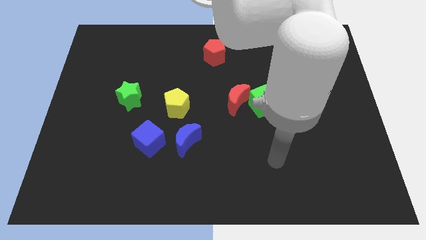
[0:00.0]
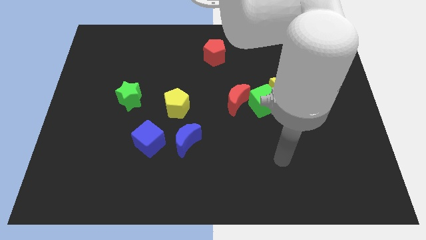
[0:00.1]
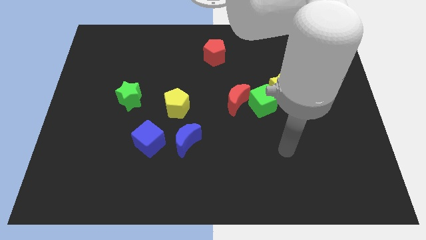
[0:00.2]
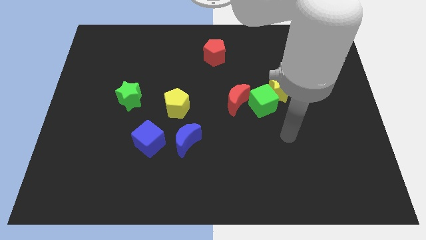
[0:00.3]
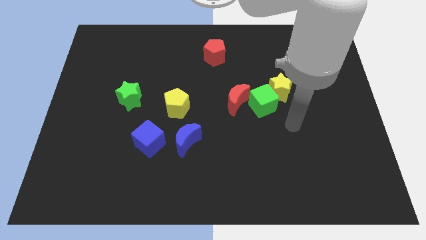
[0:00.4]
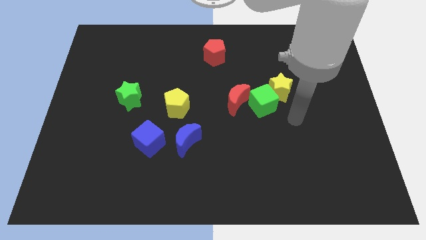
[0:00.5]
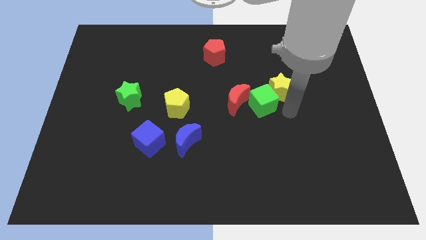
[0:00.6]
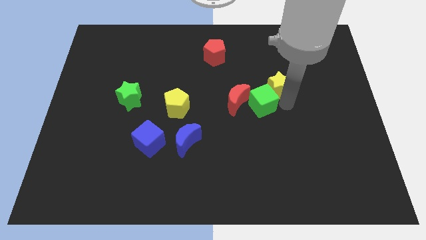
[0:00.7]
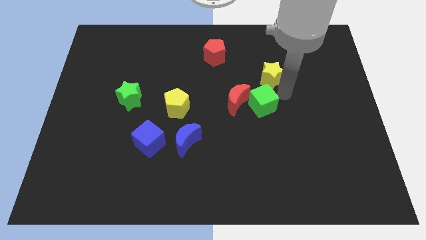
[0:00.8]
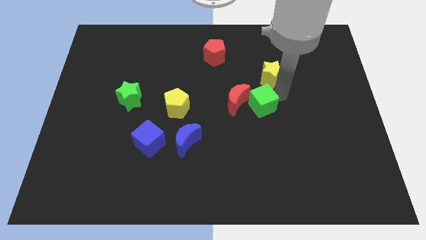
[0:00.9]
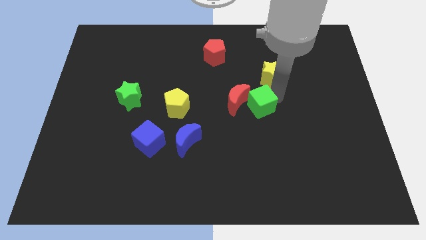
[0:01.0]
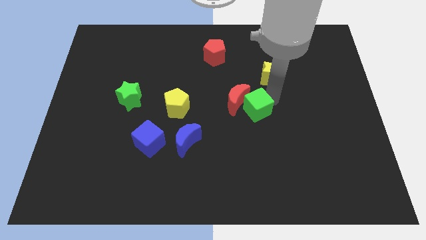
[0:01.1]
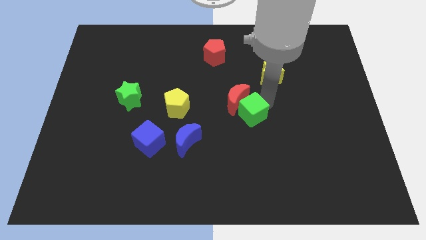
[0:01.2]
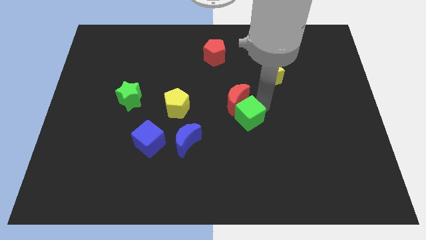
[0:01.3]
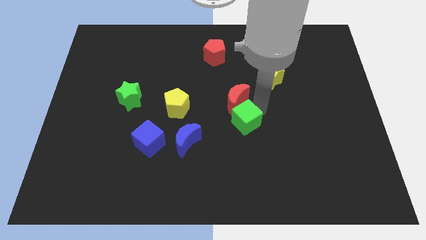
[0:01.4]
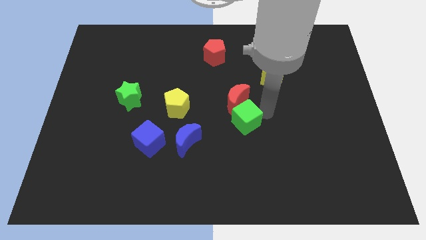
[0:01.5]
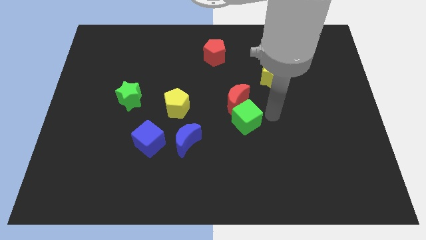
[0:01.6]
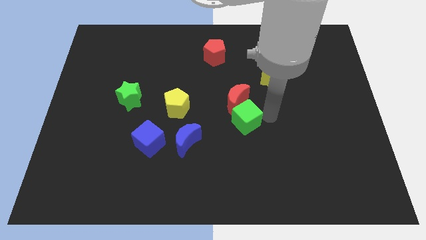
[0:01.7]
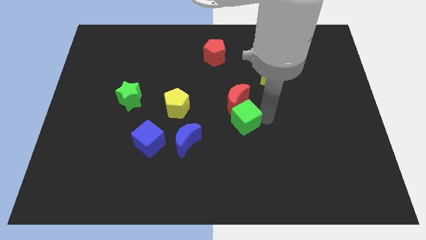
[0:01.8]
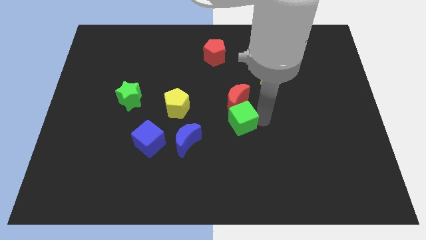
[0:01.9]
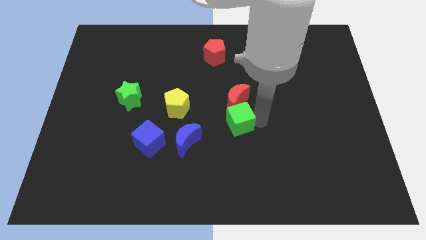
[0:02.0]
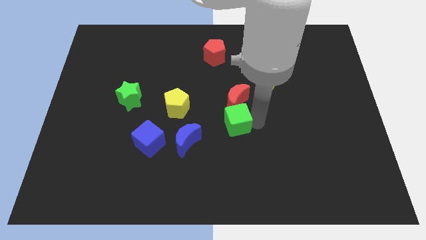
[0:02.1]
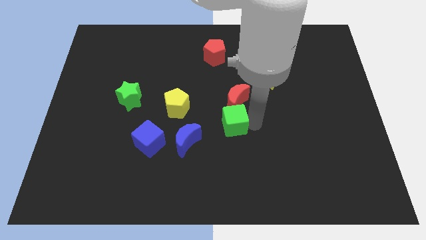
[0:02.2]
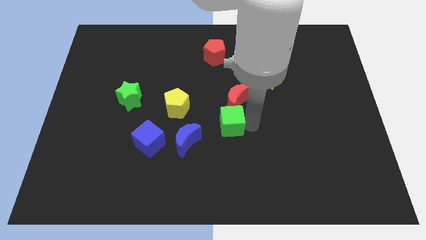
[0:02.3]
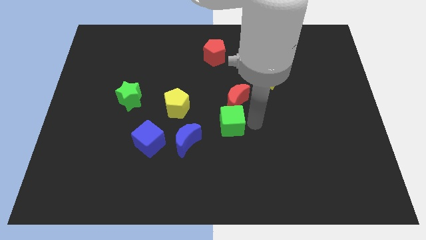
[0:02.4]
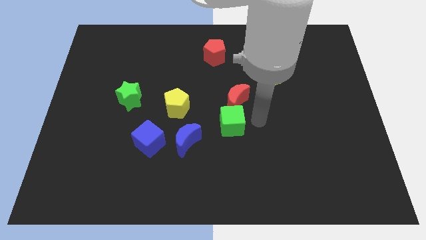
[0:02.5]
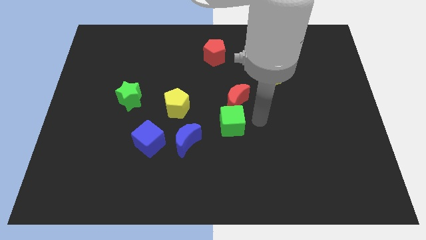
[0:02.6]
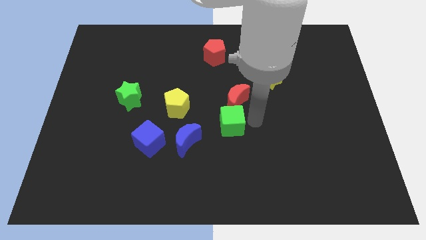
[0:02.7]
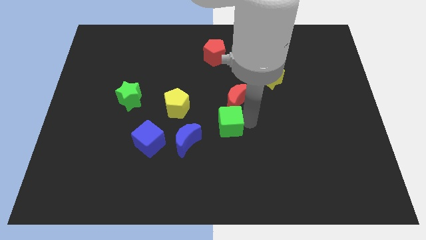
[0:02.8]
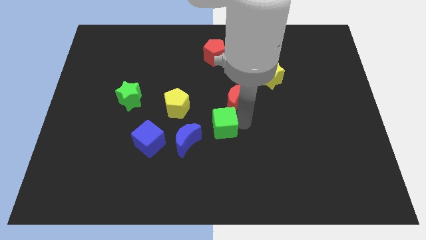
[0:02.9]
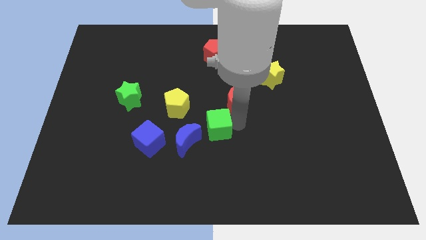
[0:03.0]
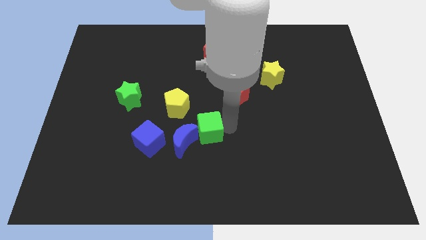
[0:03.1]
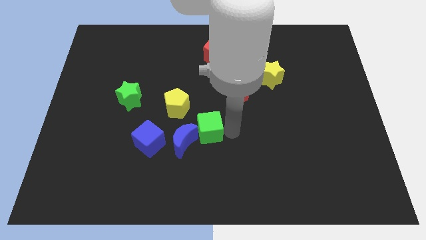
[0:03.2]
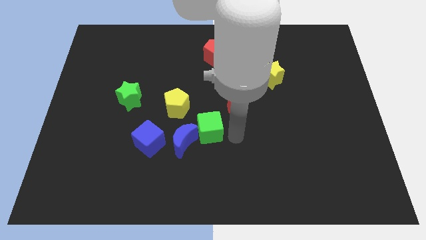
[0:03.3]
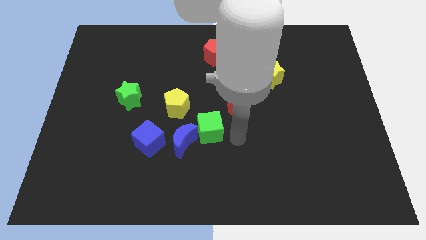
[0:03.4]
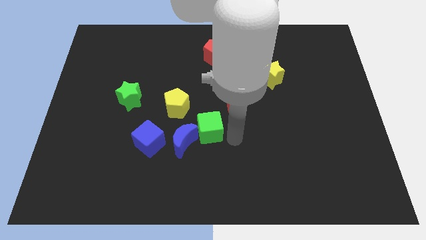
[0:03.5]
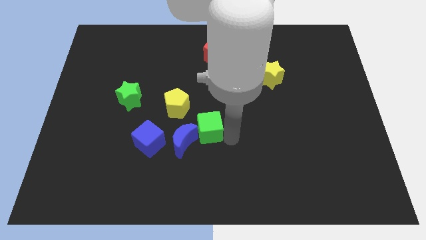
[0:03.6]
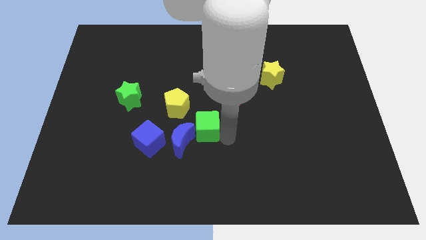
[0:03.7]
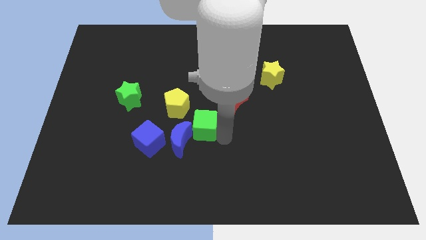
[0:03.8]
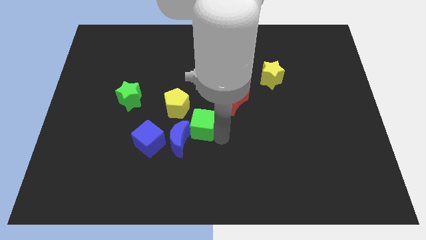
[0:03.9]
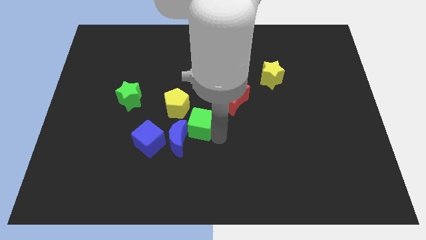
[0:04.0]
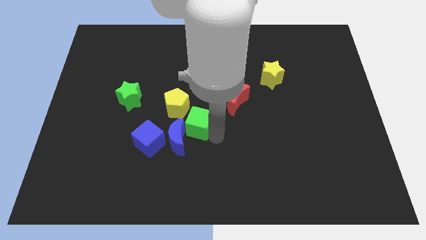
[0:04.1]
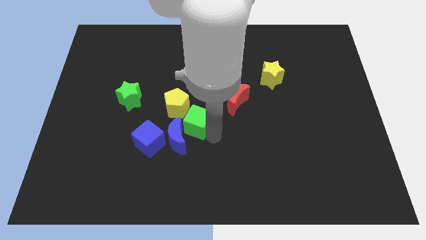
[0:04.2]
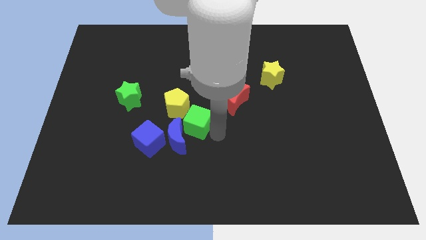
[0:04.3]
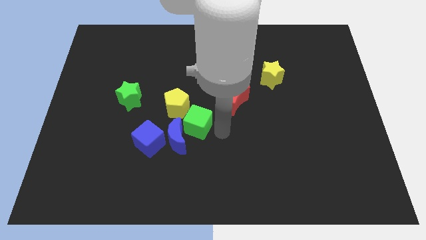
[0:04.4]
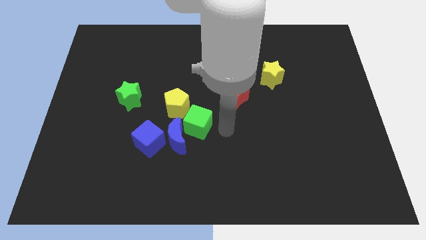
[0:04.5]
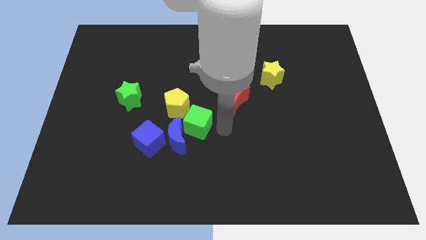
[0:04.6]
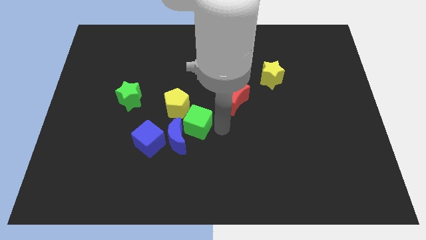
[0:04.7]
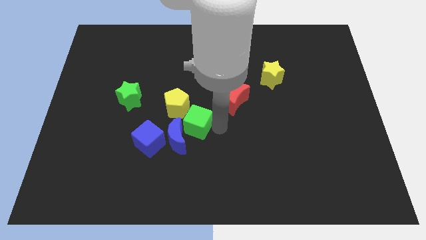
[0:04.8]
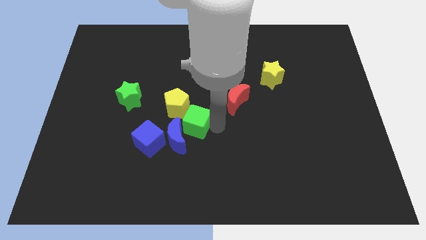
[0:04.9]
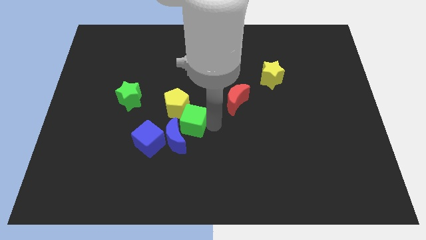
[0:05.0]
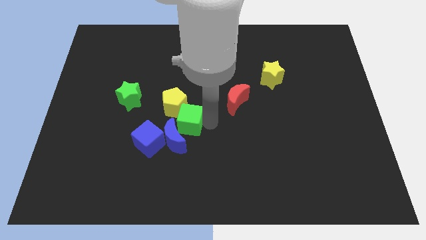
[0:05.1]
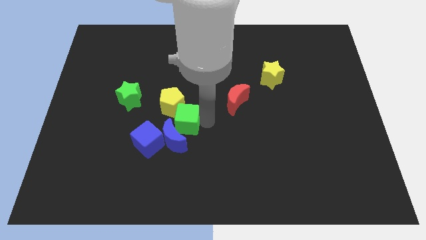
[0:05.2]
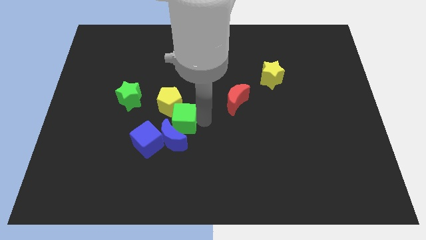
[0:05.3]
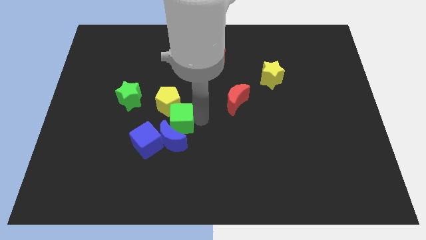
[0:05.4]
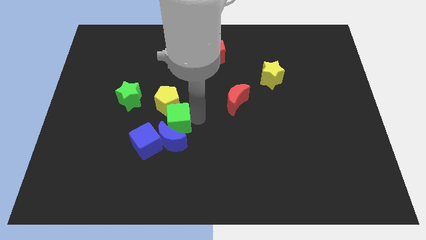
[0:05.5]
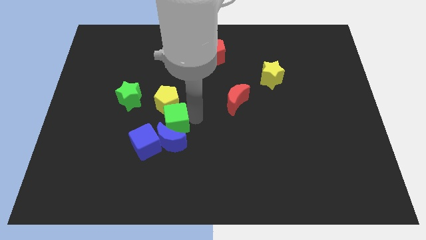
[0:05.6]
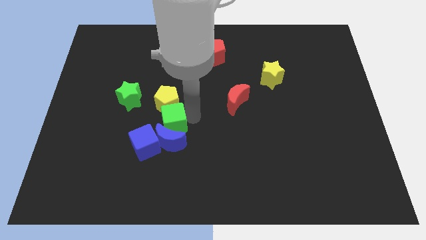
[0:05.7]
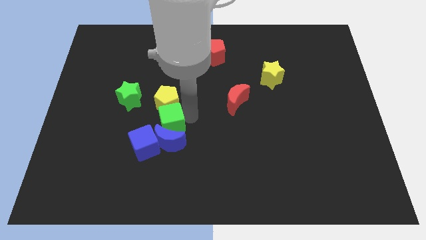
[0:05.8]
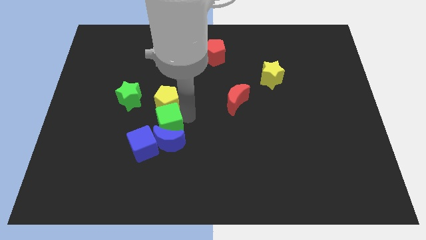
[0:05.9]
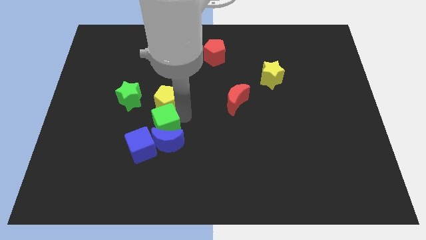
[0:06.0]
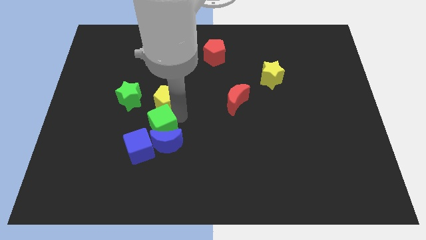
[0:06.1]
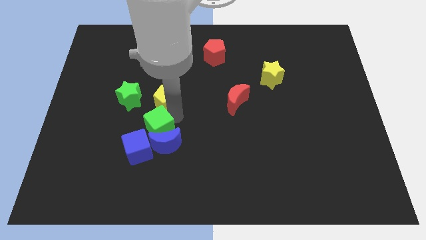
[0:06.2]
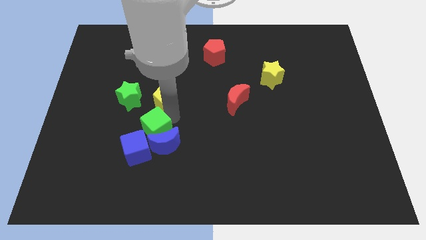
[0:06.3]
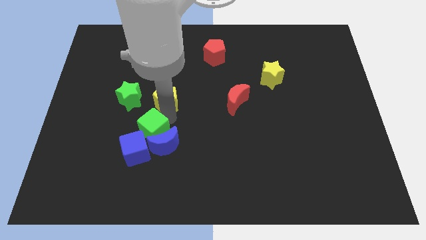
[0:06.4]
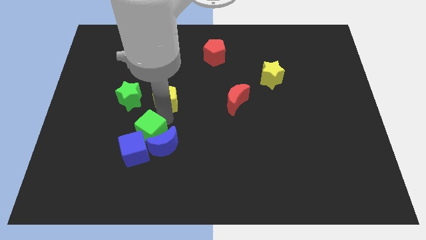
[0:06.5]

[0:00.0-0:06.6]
move the green cube close to the blue cube

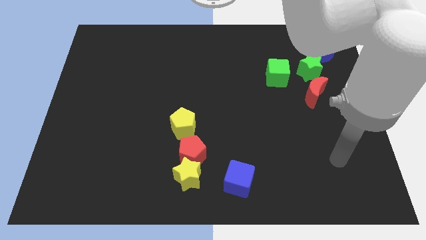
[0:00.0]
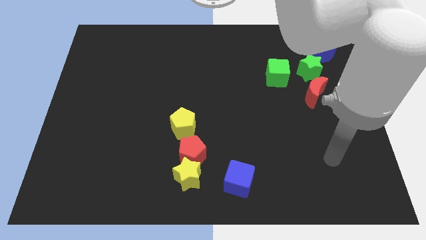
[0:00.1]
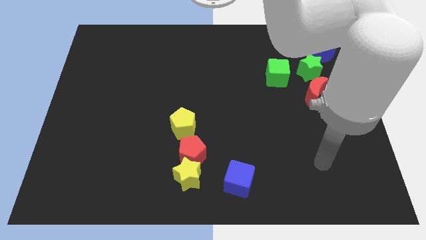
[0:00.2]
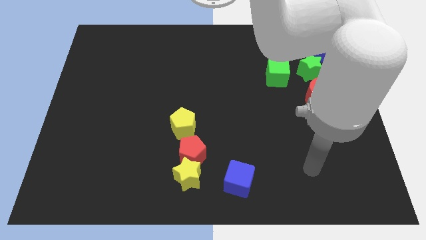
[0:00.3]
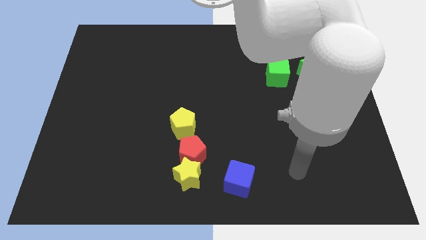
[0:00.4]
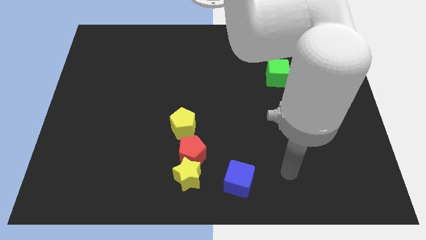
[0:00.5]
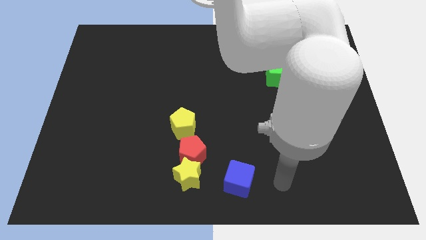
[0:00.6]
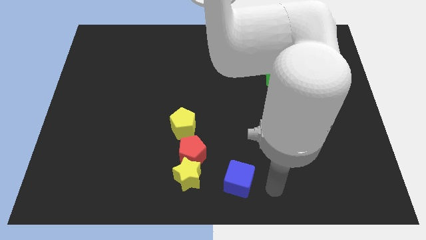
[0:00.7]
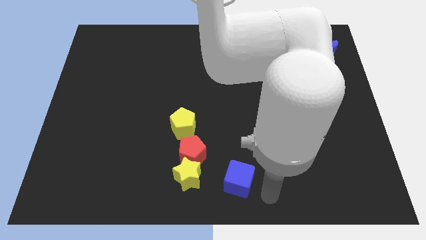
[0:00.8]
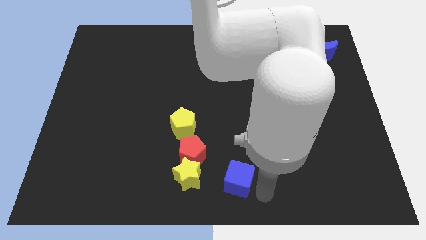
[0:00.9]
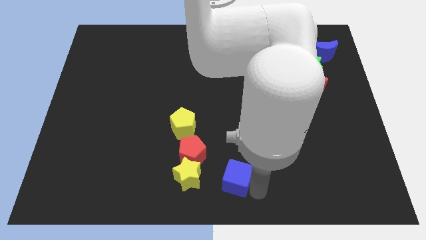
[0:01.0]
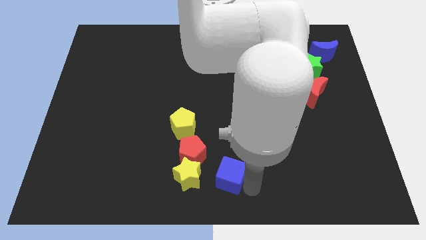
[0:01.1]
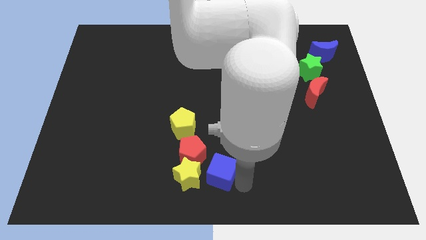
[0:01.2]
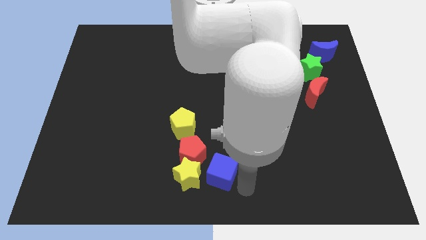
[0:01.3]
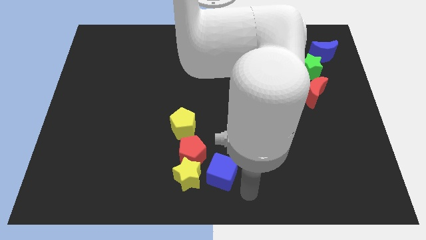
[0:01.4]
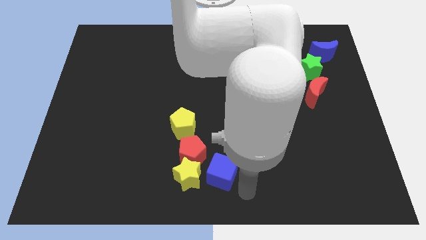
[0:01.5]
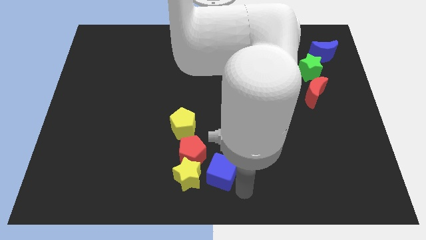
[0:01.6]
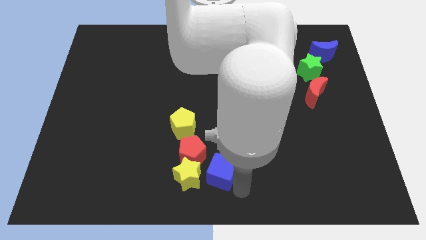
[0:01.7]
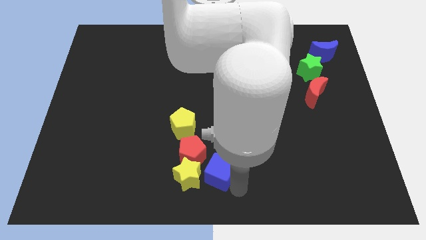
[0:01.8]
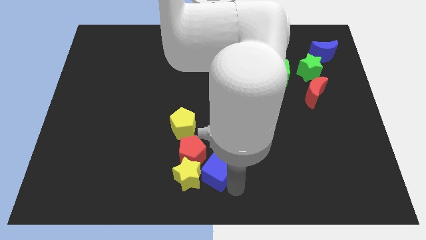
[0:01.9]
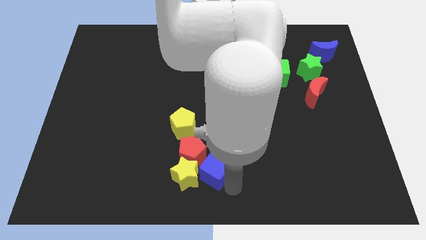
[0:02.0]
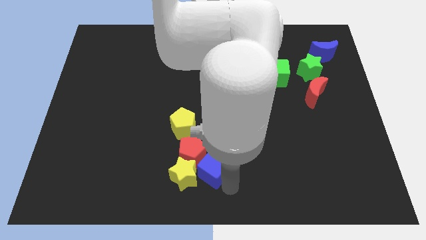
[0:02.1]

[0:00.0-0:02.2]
put the blue cube close to the red pentagon
